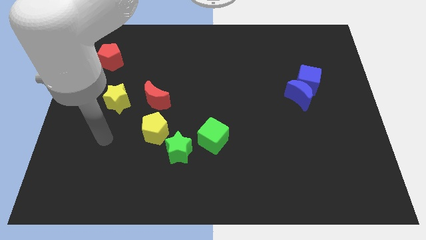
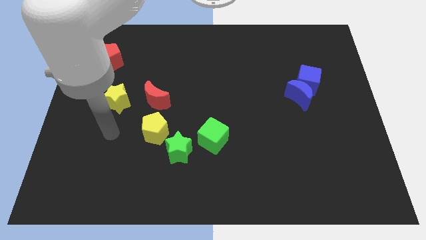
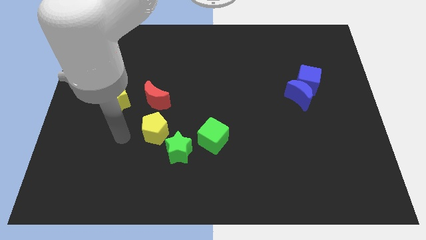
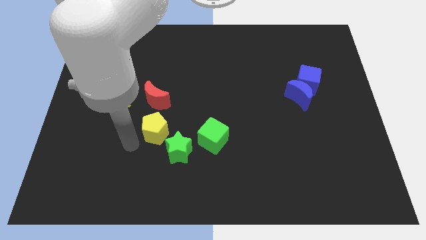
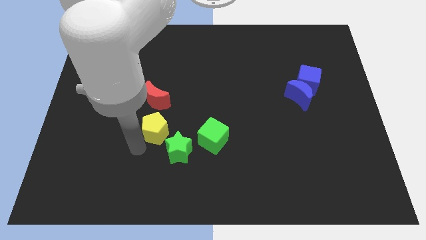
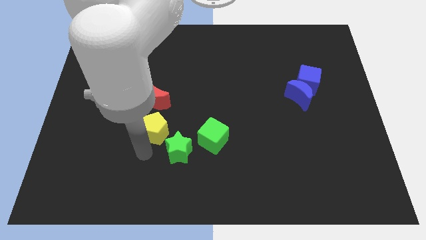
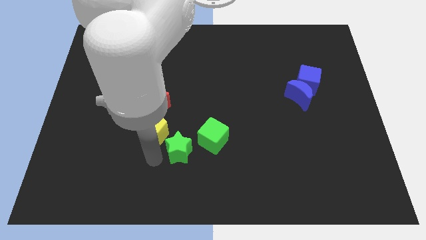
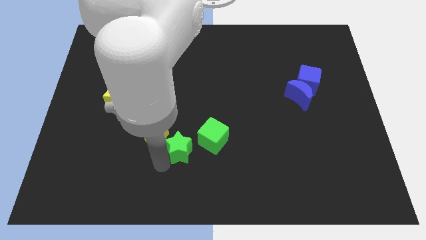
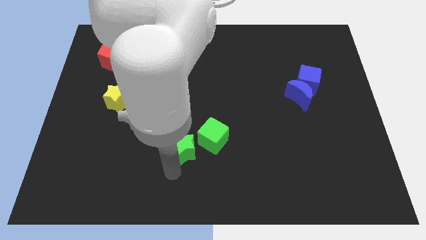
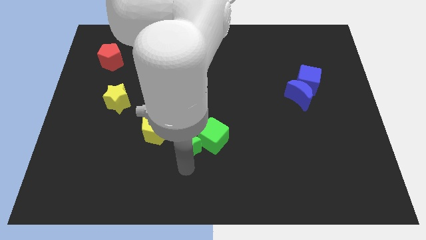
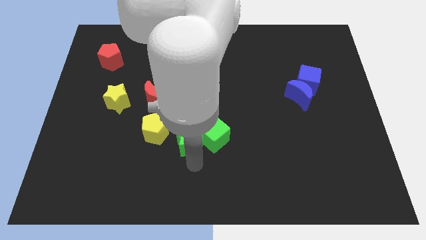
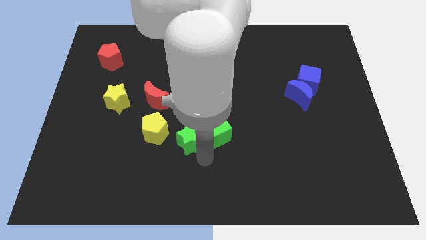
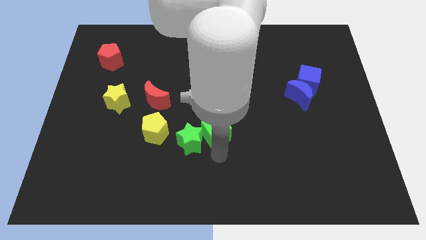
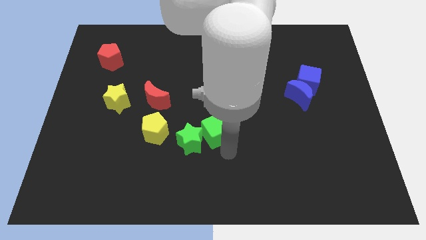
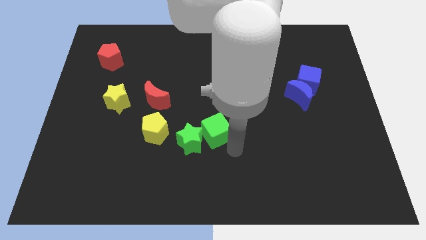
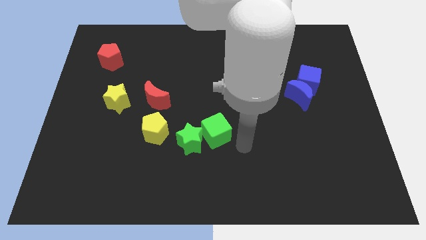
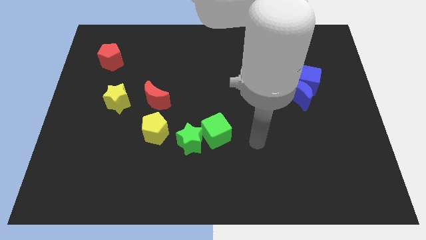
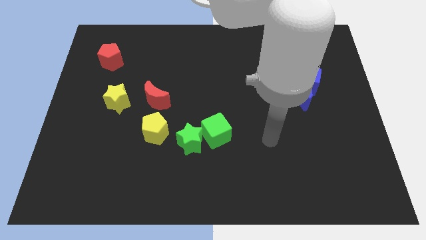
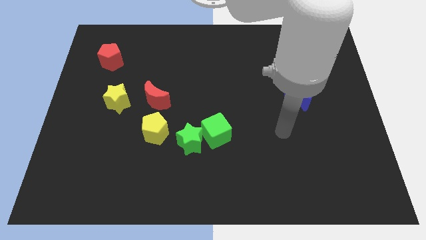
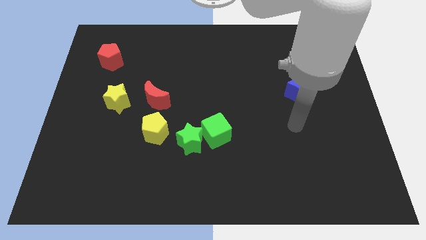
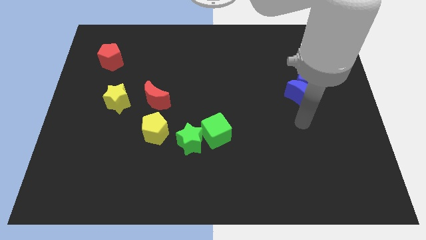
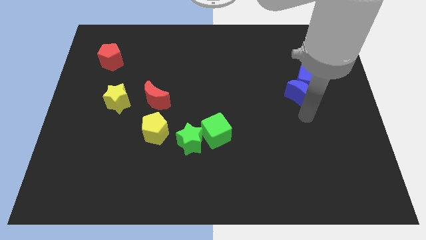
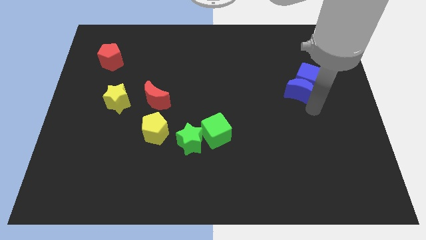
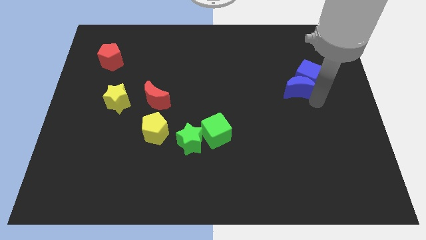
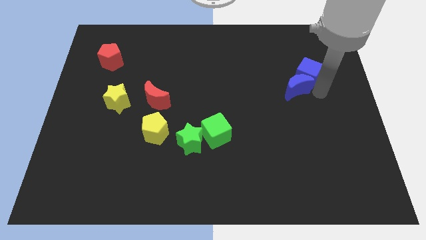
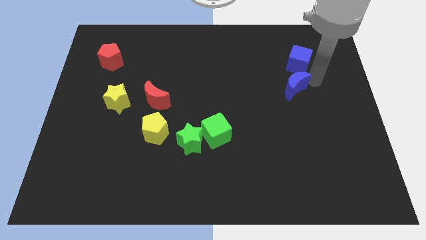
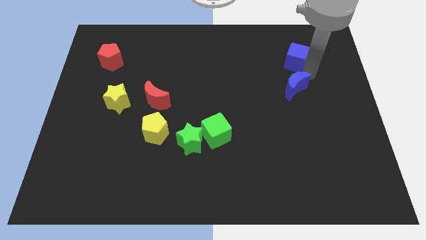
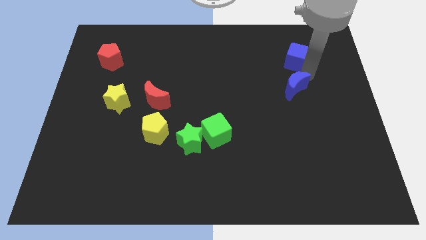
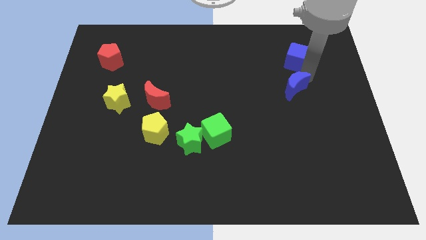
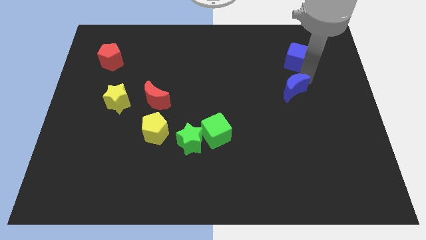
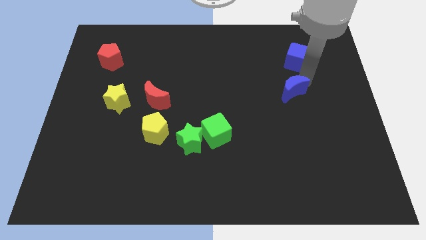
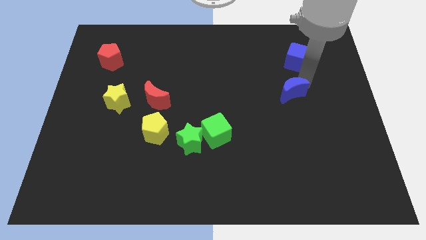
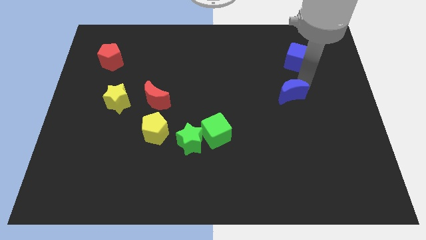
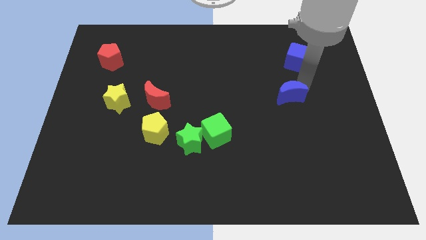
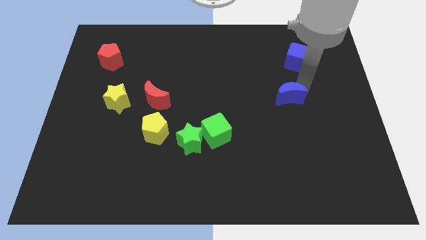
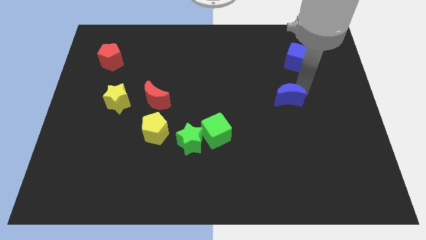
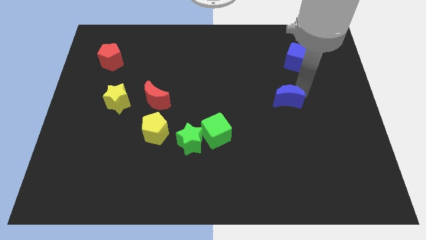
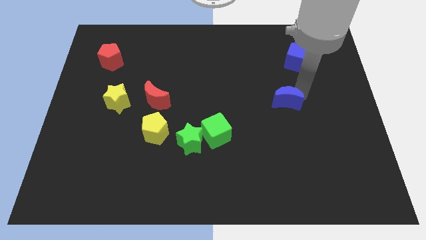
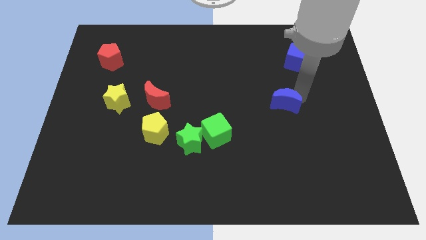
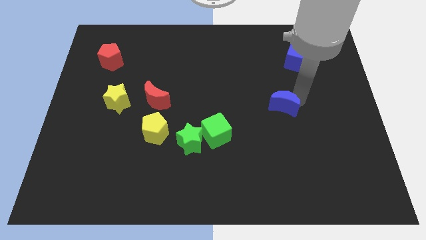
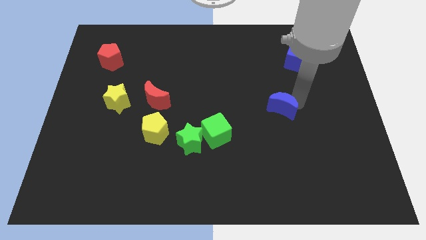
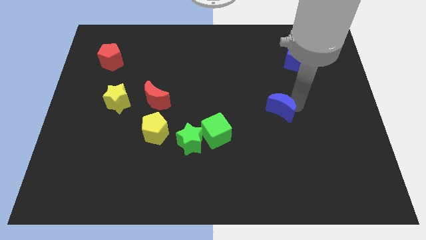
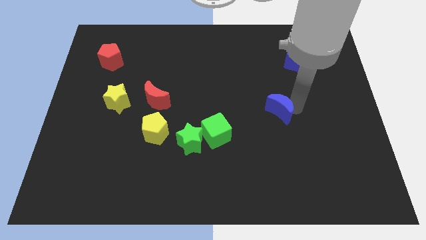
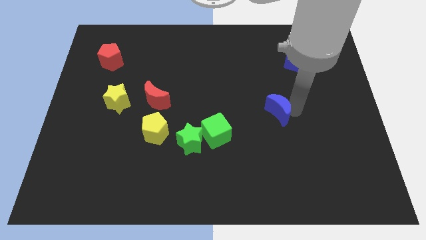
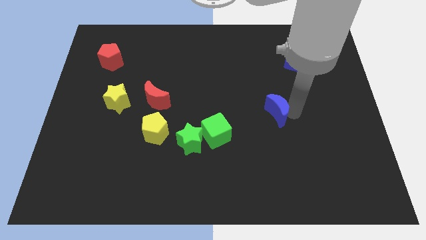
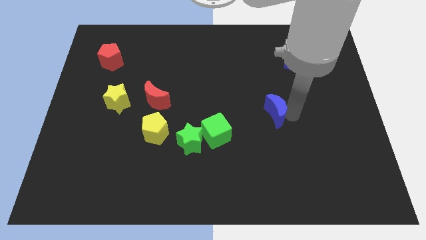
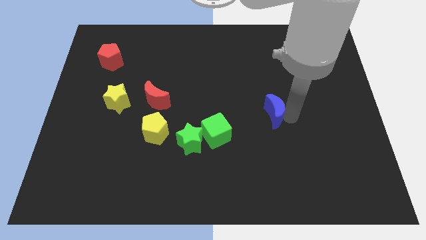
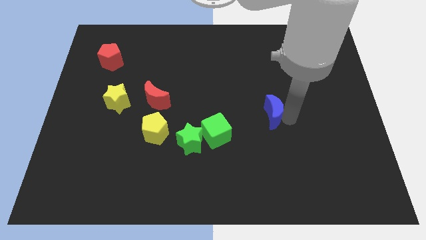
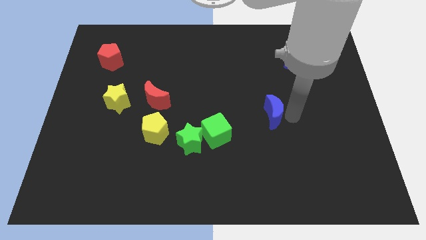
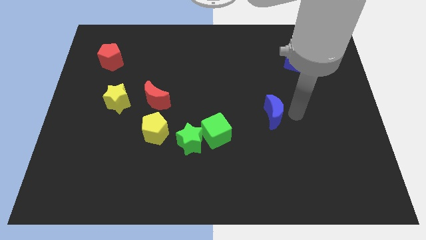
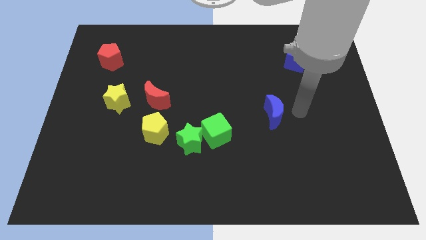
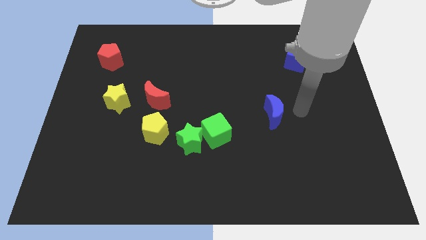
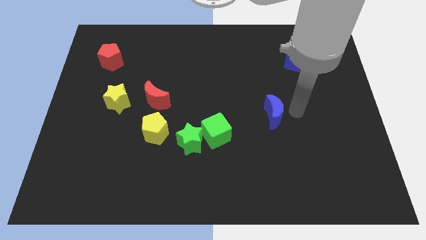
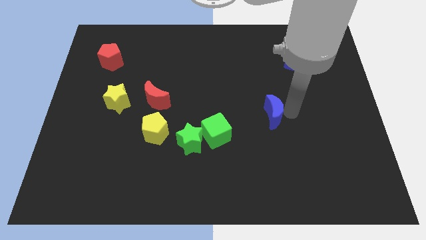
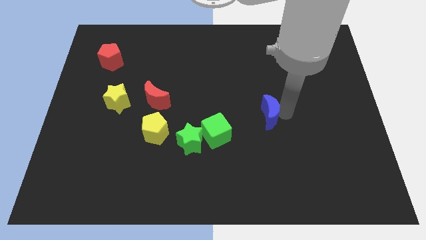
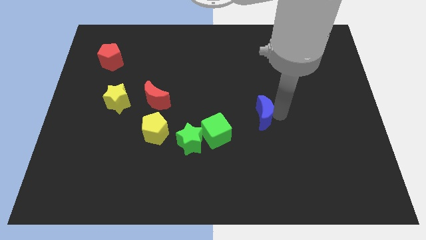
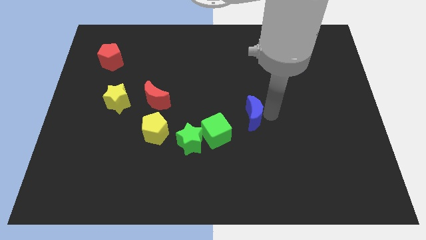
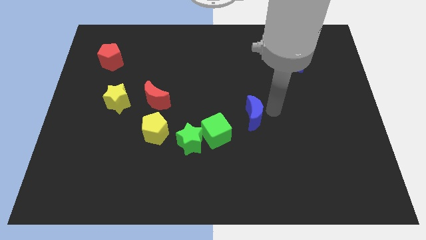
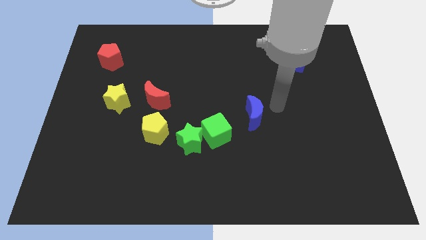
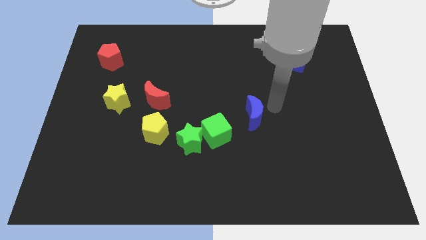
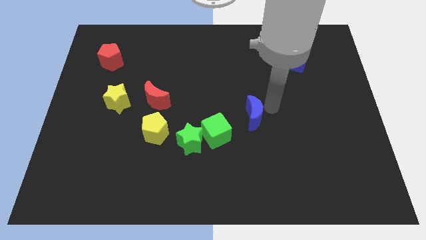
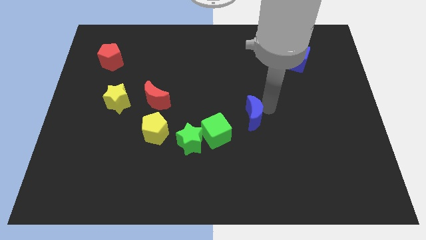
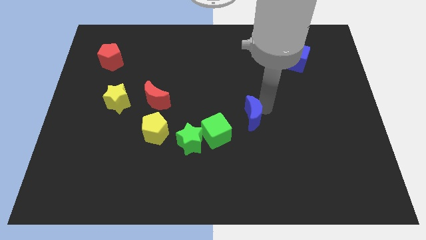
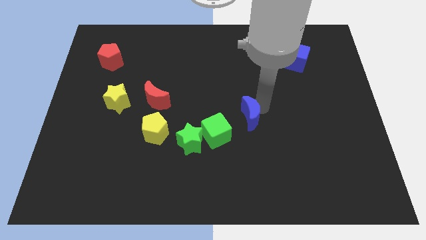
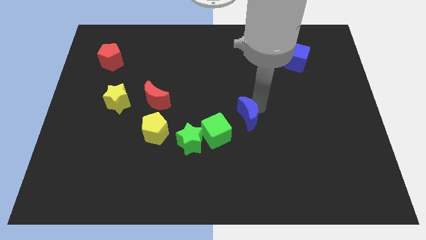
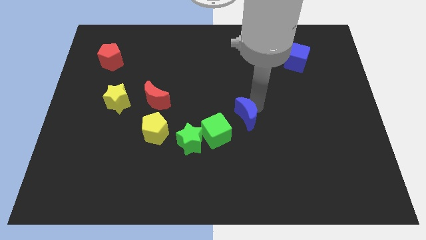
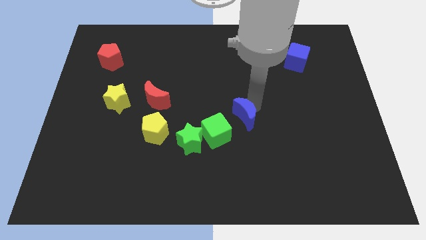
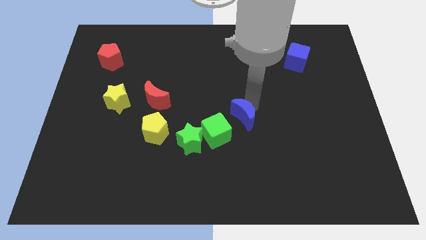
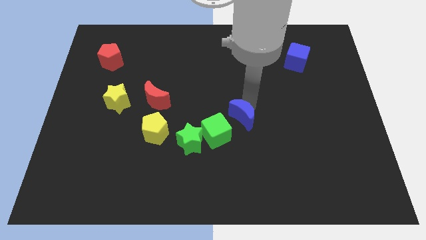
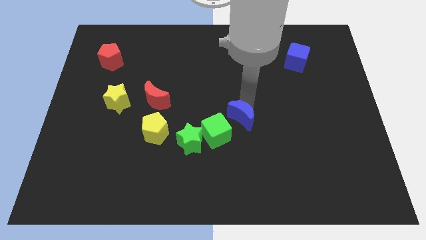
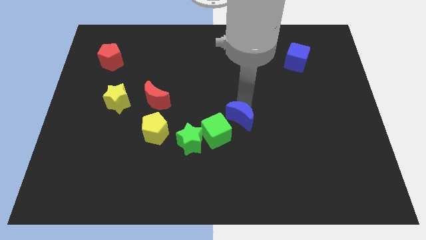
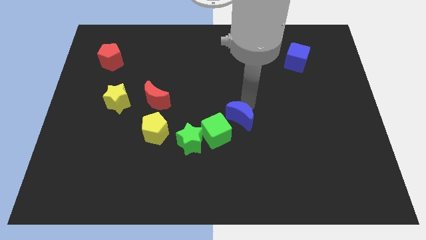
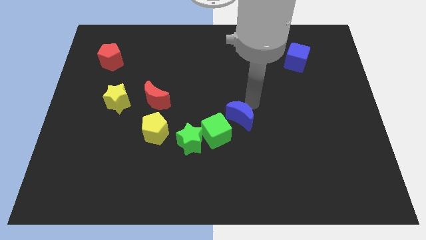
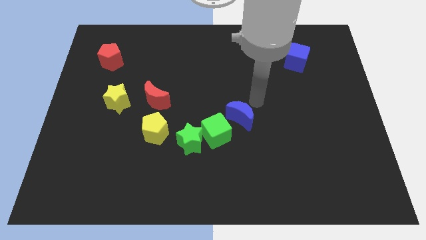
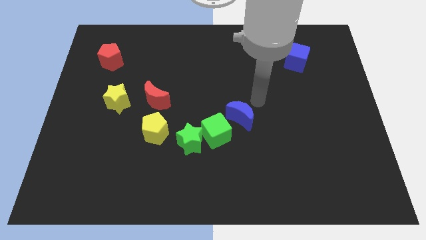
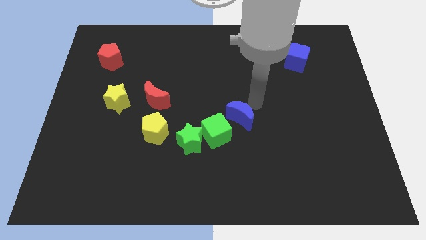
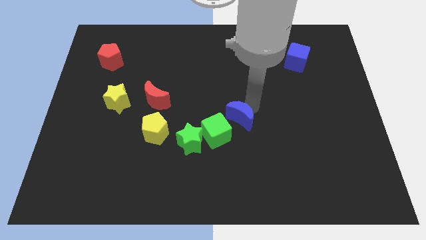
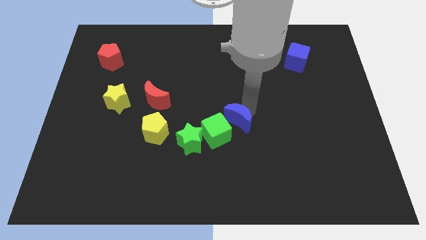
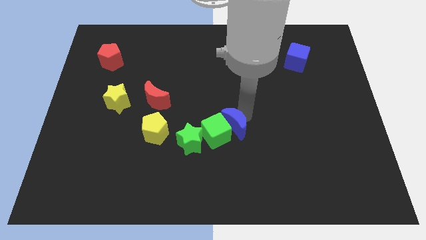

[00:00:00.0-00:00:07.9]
put the blue moon to the green cube
